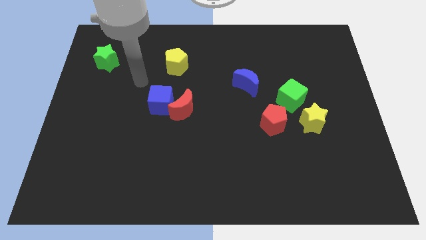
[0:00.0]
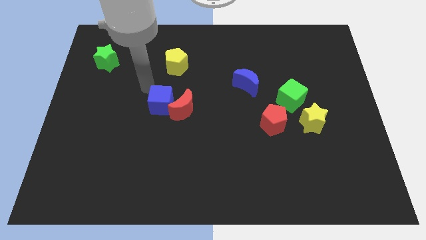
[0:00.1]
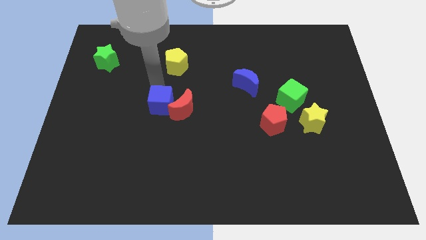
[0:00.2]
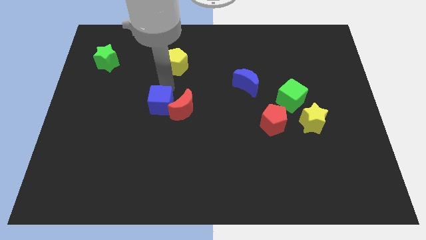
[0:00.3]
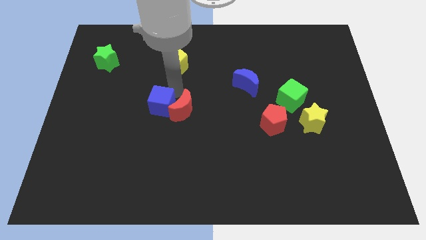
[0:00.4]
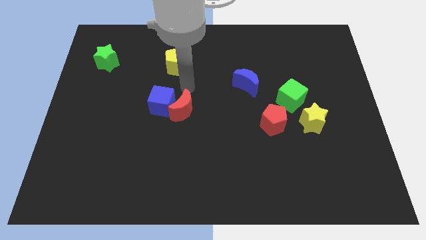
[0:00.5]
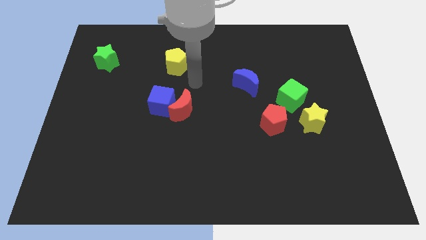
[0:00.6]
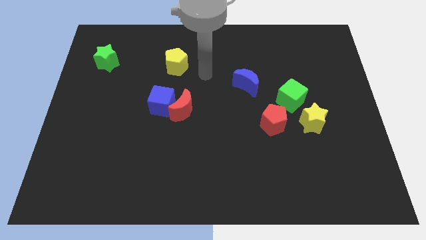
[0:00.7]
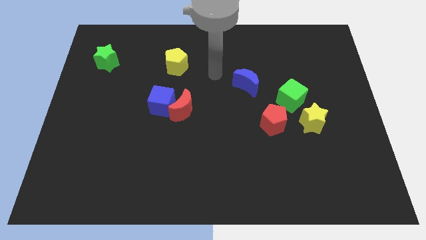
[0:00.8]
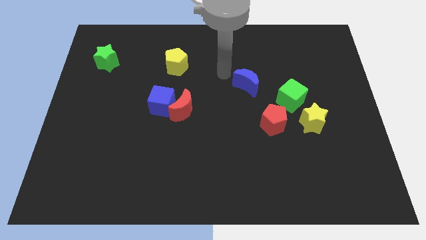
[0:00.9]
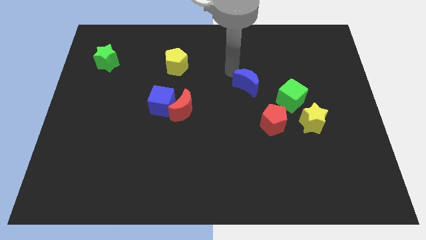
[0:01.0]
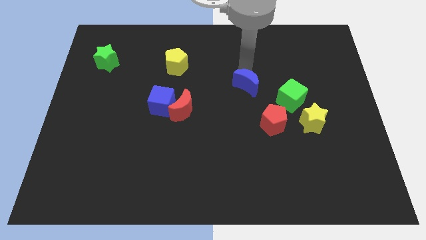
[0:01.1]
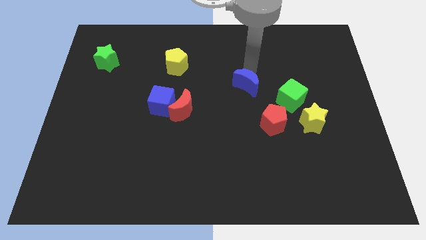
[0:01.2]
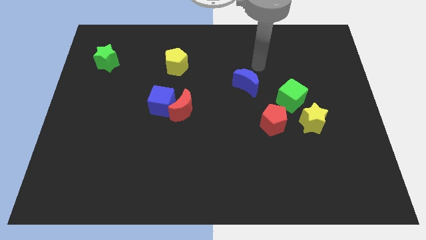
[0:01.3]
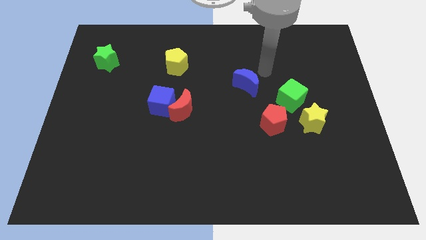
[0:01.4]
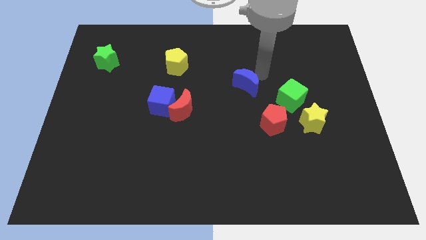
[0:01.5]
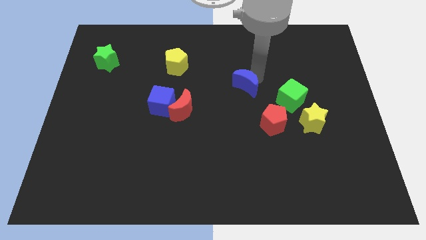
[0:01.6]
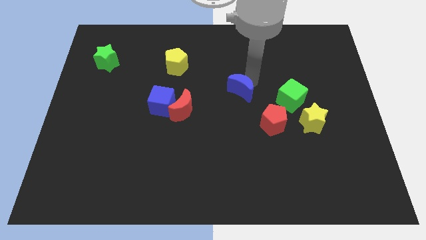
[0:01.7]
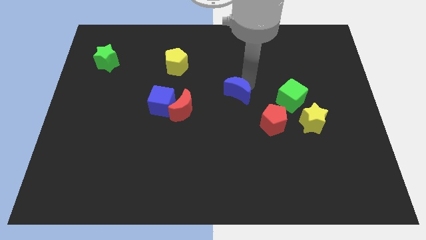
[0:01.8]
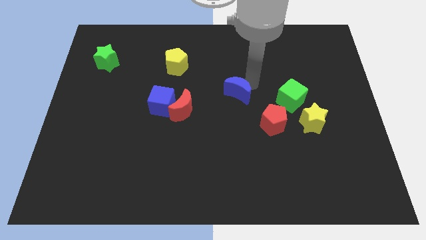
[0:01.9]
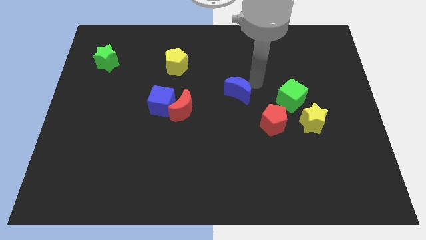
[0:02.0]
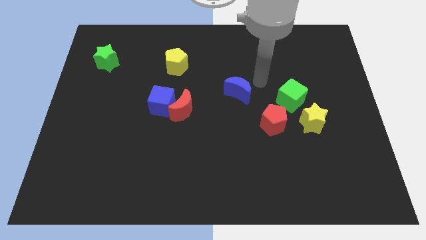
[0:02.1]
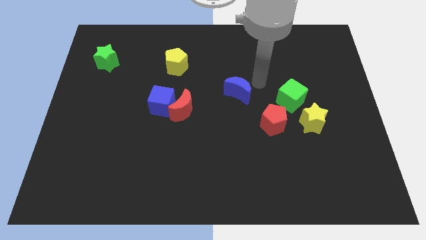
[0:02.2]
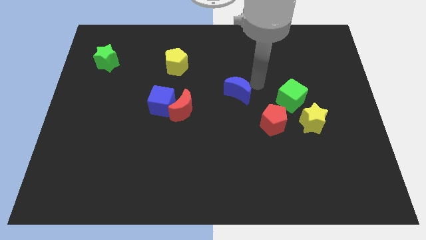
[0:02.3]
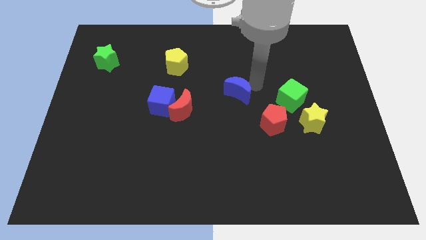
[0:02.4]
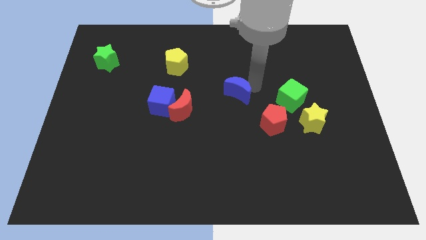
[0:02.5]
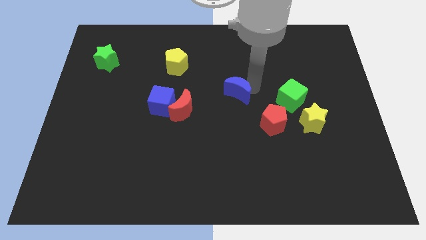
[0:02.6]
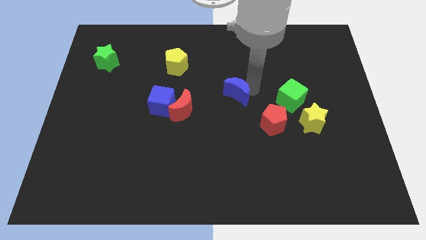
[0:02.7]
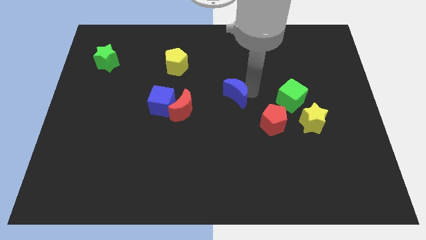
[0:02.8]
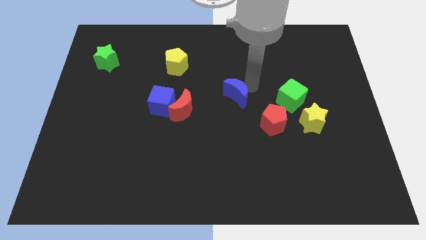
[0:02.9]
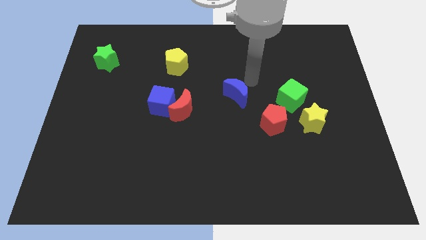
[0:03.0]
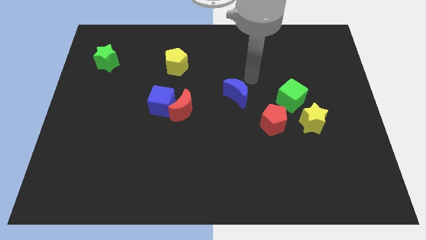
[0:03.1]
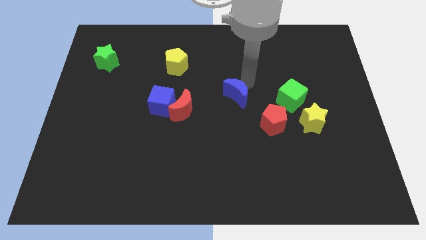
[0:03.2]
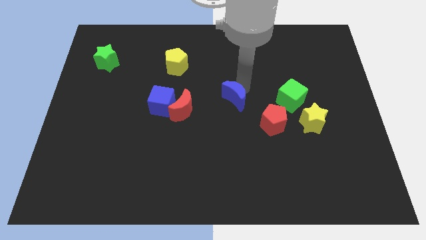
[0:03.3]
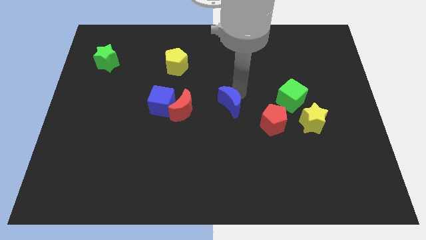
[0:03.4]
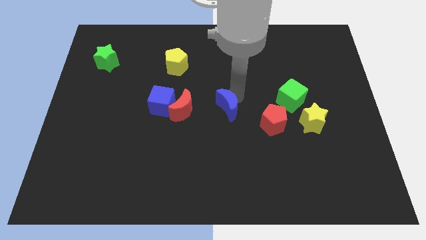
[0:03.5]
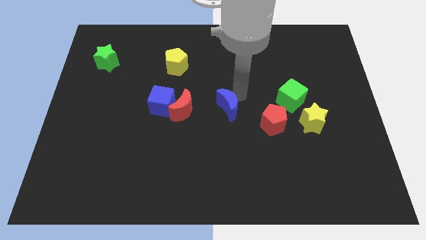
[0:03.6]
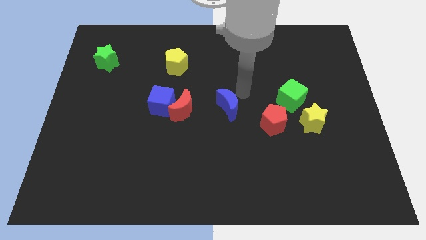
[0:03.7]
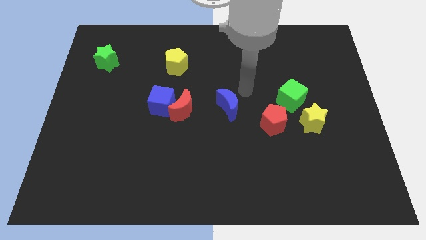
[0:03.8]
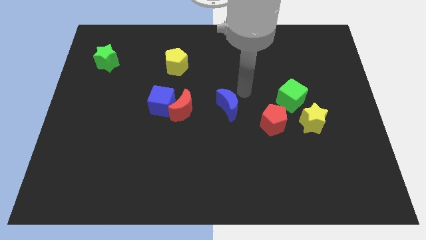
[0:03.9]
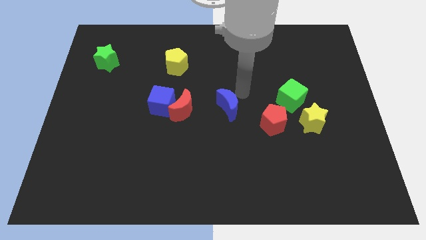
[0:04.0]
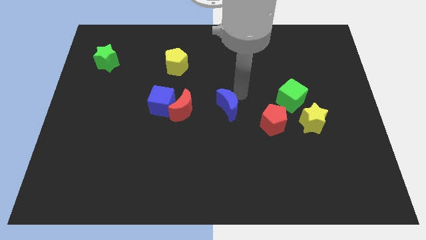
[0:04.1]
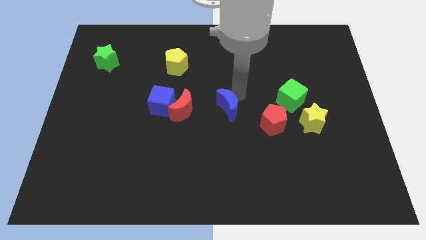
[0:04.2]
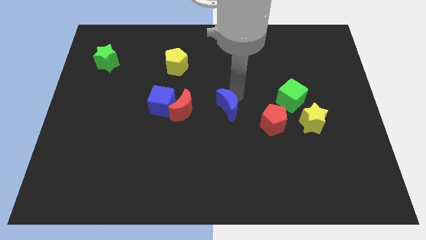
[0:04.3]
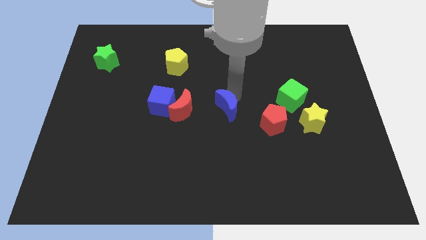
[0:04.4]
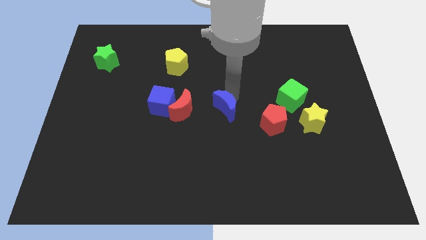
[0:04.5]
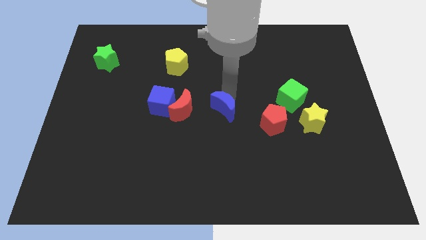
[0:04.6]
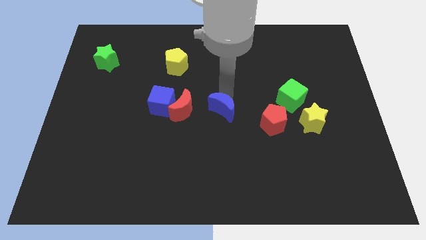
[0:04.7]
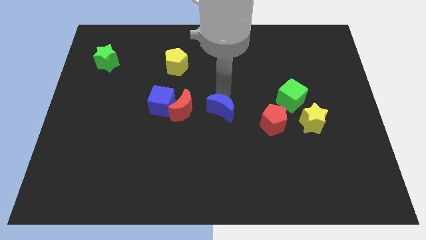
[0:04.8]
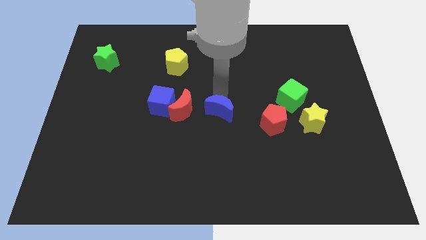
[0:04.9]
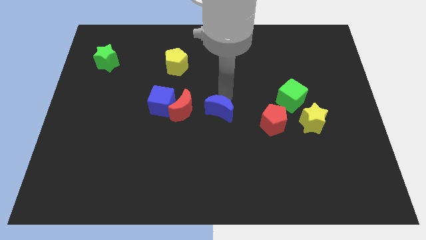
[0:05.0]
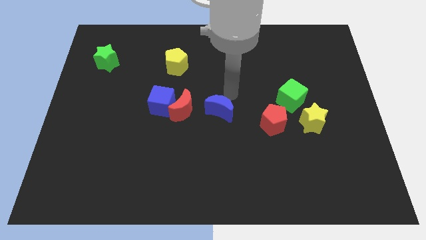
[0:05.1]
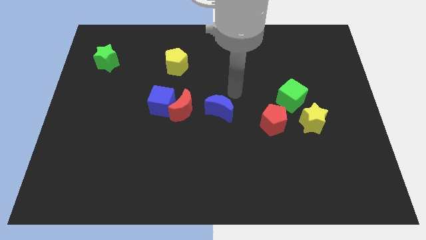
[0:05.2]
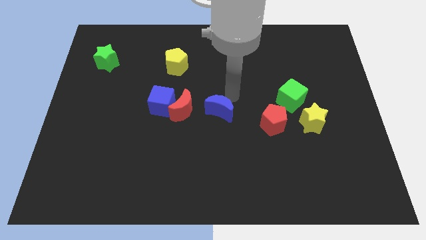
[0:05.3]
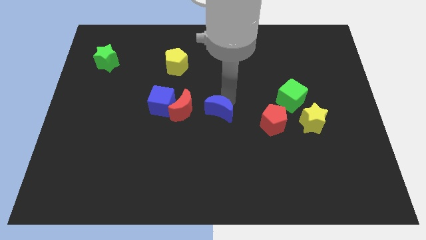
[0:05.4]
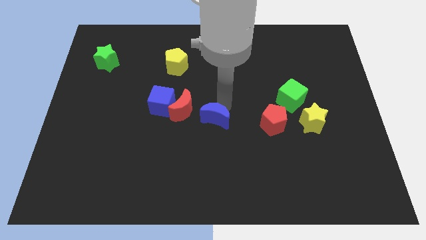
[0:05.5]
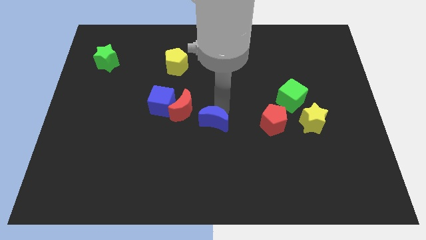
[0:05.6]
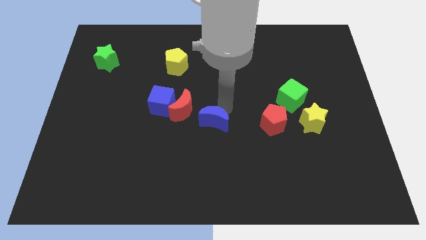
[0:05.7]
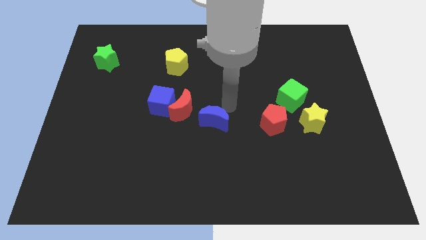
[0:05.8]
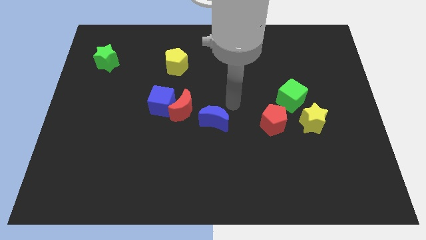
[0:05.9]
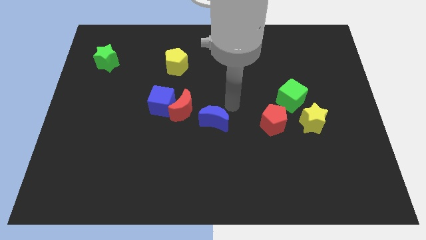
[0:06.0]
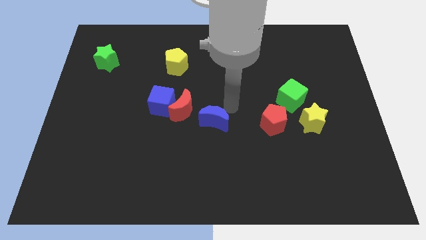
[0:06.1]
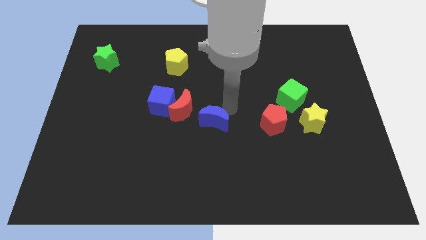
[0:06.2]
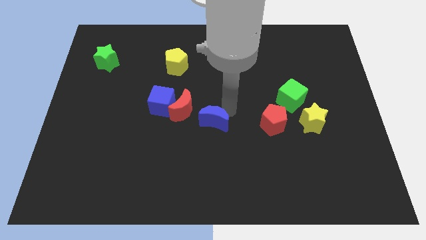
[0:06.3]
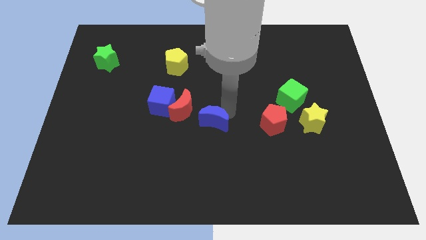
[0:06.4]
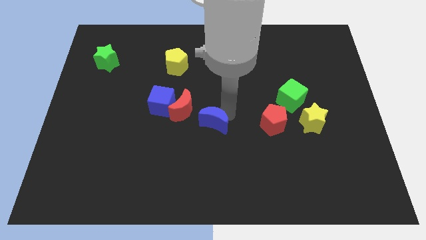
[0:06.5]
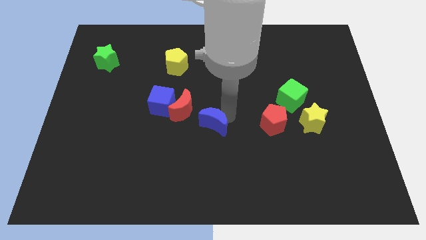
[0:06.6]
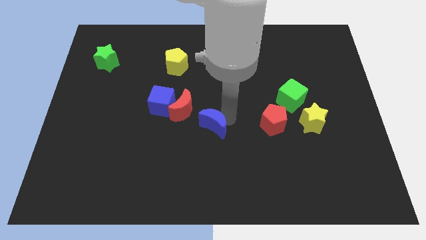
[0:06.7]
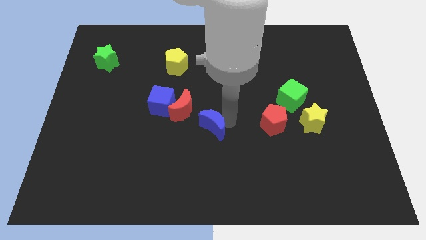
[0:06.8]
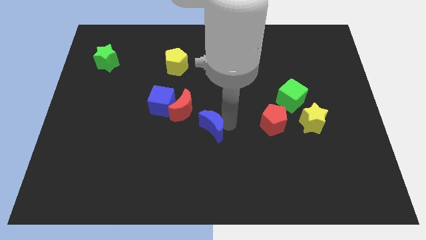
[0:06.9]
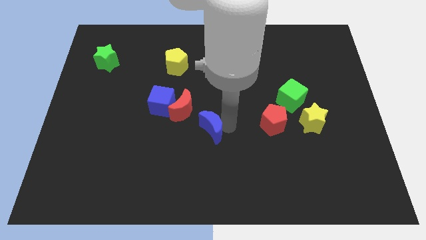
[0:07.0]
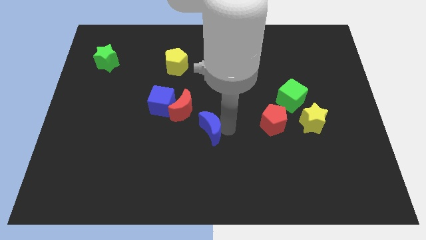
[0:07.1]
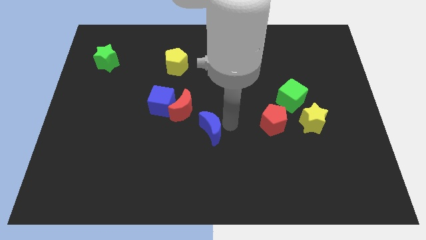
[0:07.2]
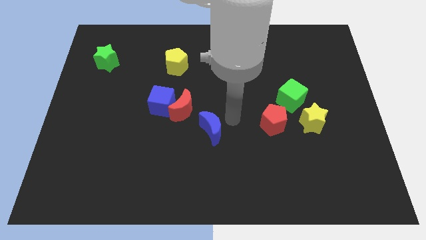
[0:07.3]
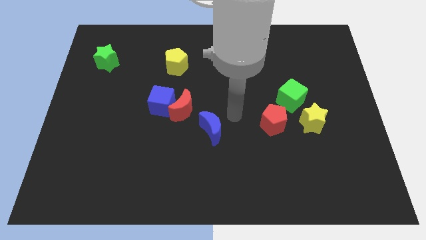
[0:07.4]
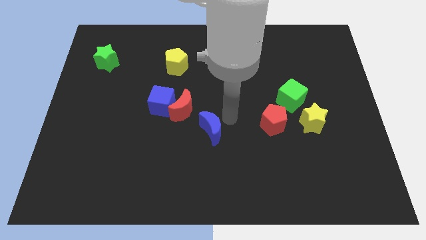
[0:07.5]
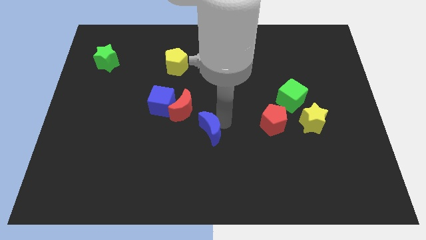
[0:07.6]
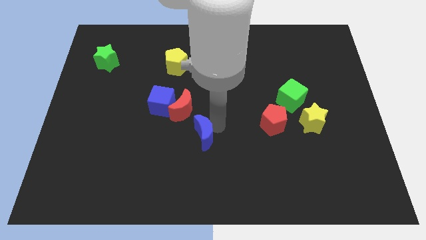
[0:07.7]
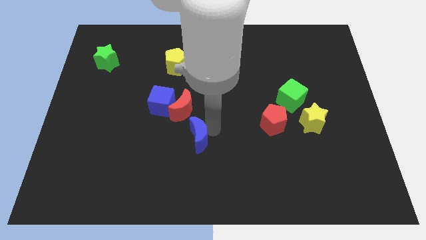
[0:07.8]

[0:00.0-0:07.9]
put the blue moon to the bottom right side of the blue cube
